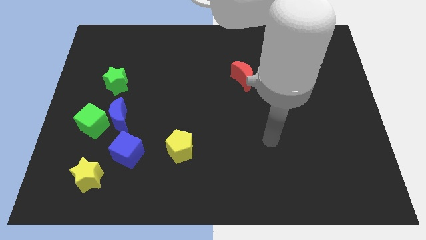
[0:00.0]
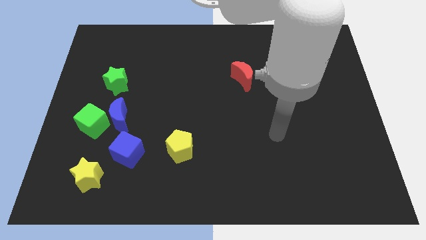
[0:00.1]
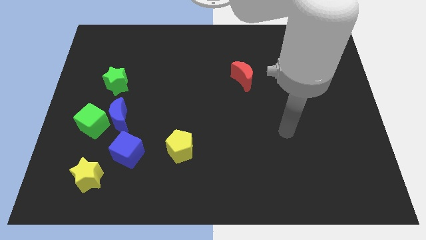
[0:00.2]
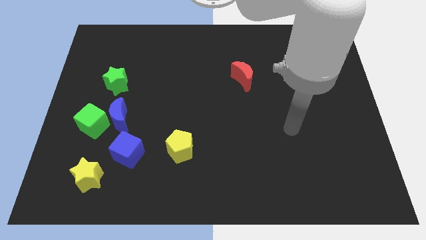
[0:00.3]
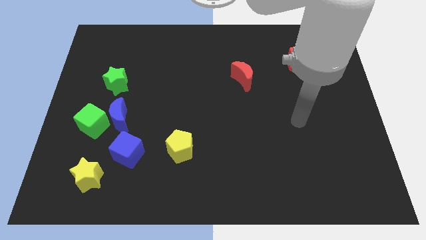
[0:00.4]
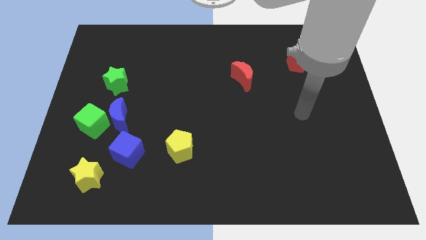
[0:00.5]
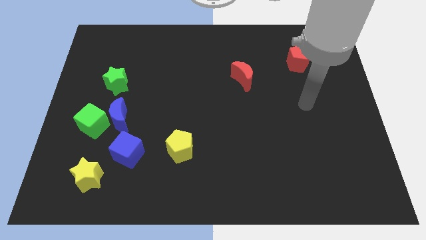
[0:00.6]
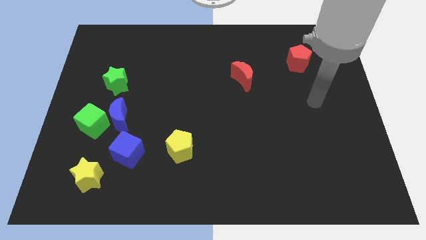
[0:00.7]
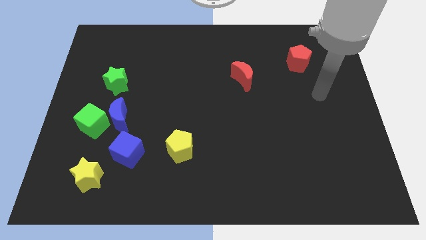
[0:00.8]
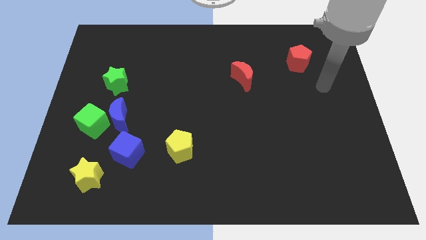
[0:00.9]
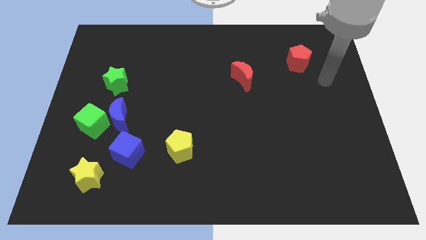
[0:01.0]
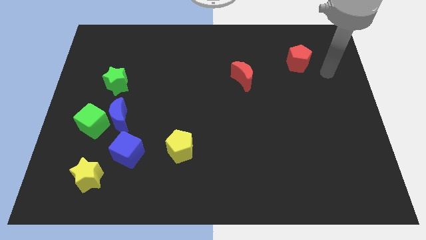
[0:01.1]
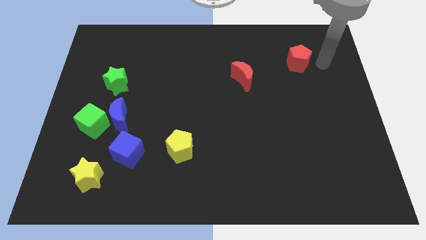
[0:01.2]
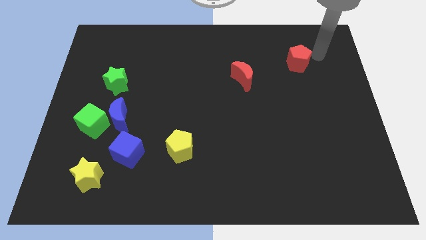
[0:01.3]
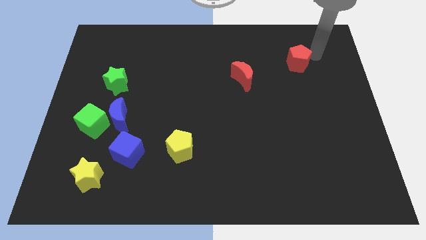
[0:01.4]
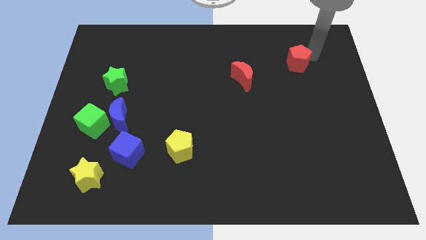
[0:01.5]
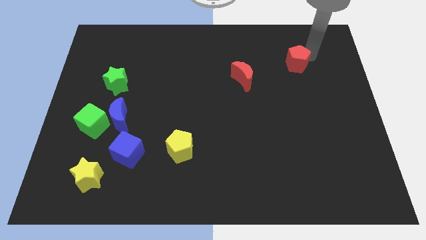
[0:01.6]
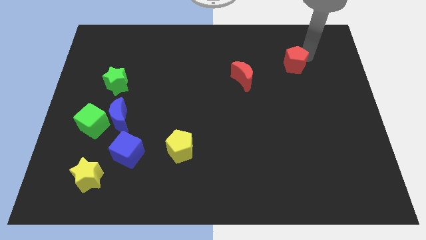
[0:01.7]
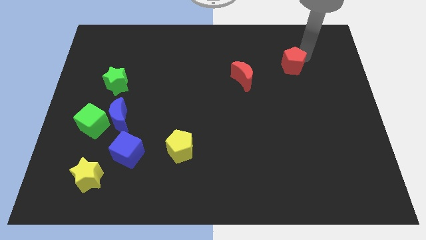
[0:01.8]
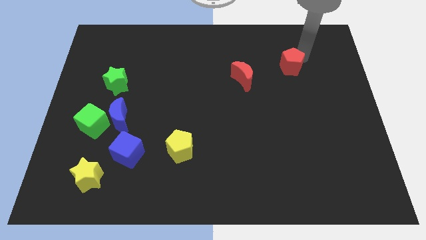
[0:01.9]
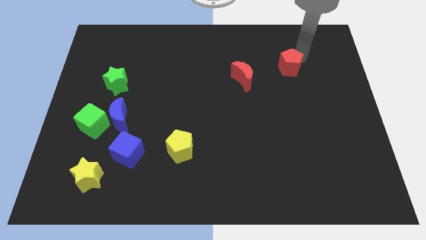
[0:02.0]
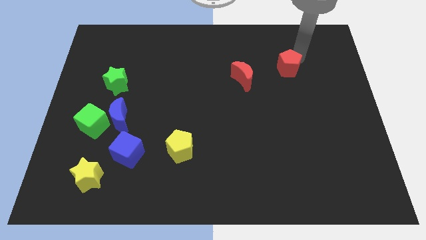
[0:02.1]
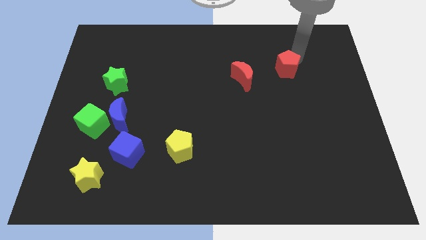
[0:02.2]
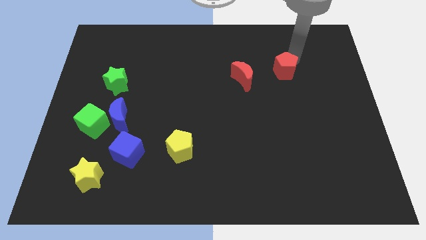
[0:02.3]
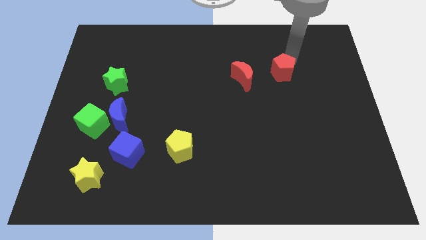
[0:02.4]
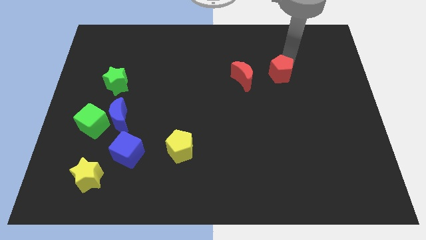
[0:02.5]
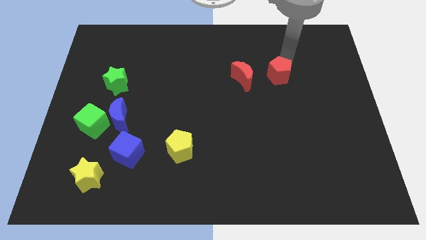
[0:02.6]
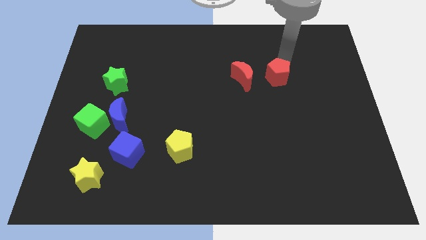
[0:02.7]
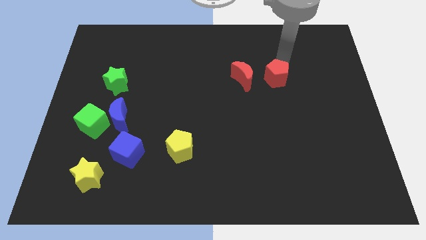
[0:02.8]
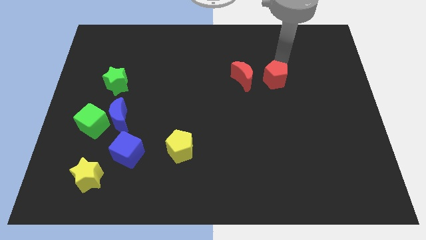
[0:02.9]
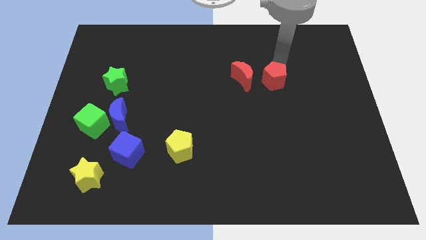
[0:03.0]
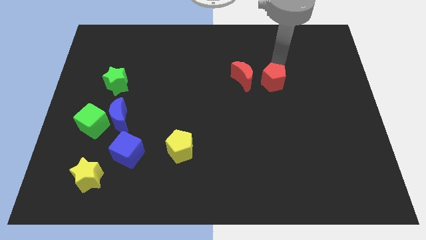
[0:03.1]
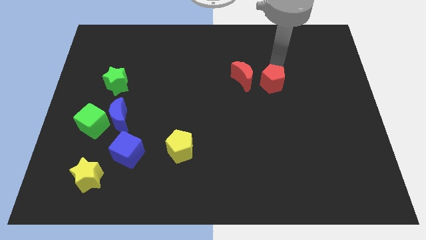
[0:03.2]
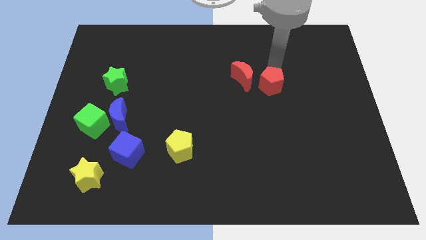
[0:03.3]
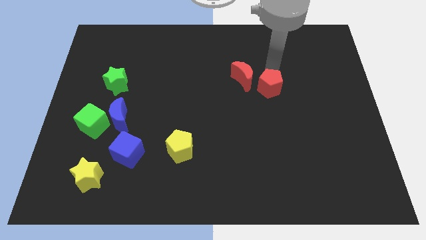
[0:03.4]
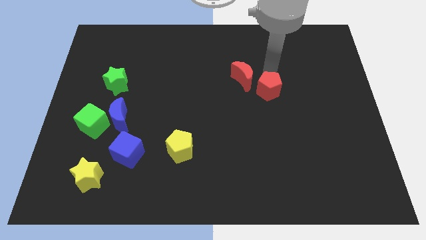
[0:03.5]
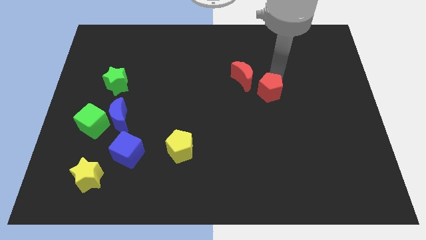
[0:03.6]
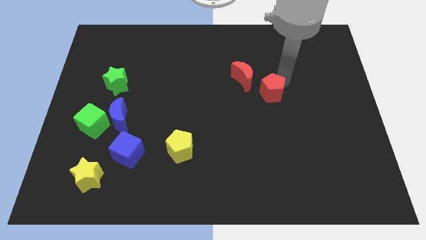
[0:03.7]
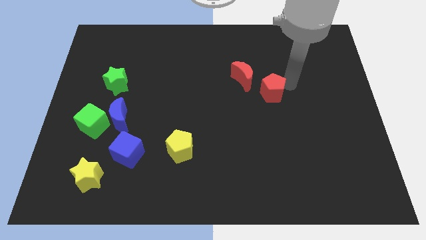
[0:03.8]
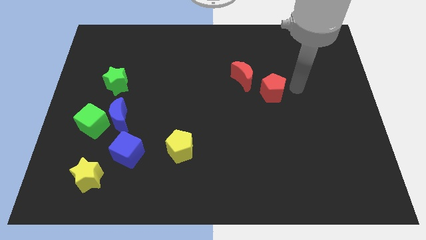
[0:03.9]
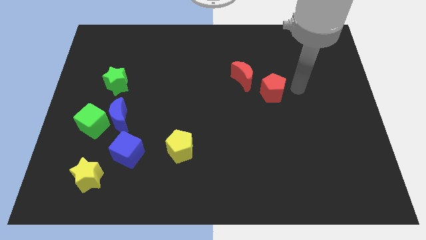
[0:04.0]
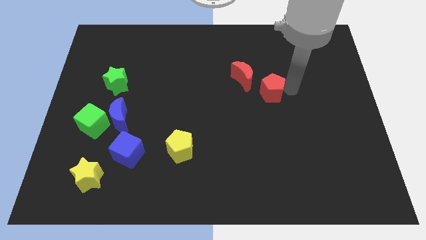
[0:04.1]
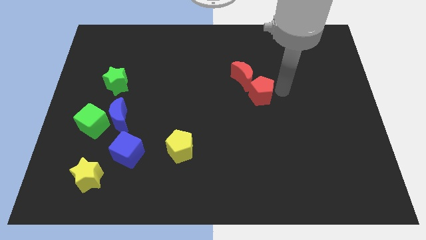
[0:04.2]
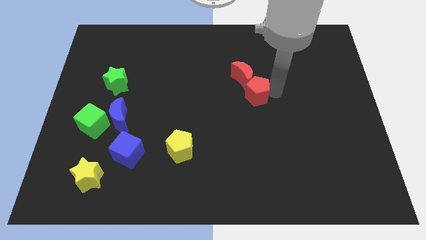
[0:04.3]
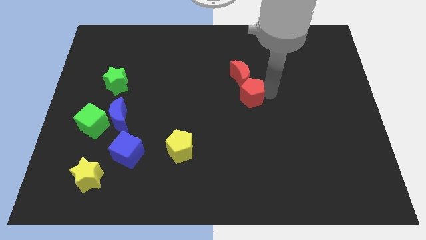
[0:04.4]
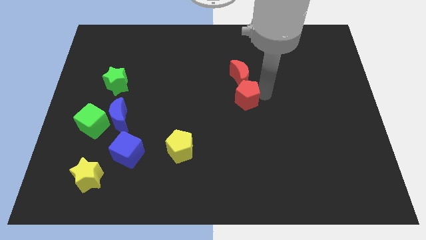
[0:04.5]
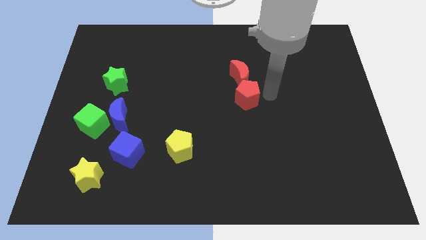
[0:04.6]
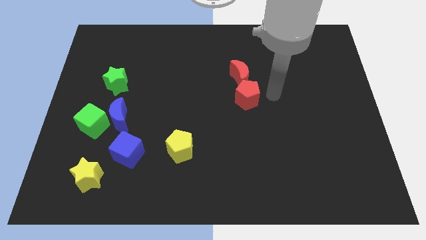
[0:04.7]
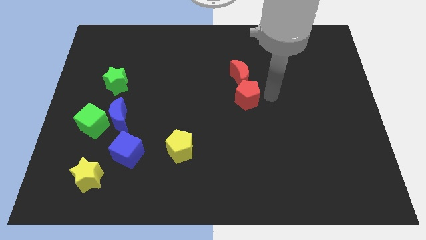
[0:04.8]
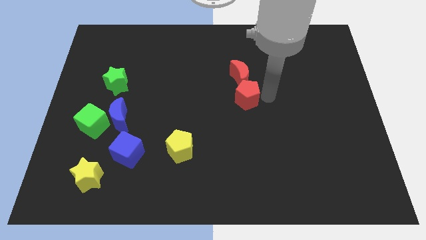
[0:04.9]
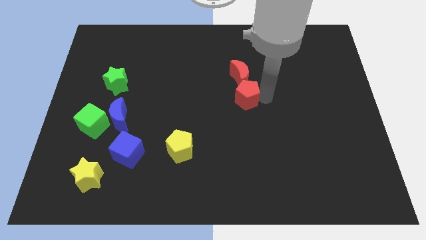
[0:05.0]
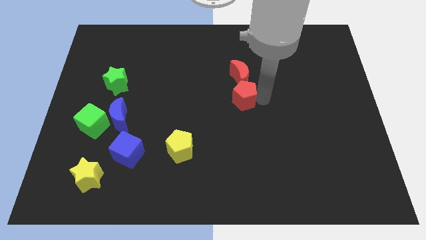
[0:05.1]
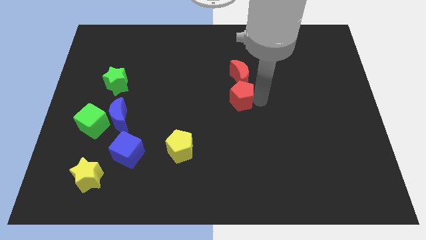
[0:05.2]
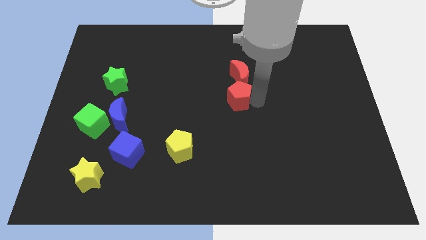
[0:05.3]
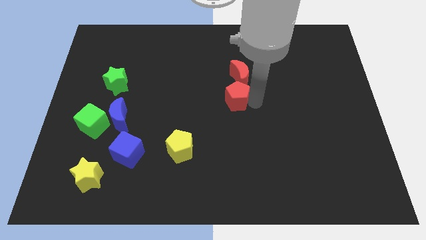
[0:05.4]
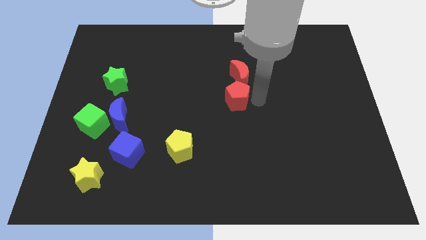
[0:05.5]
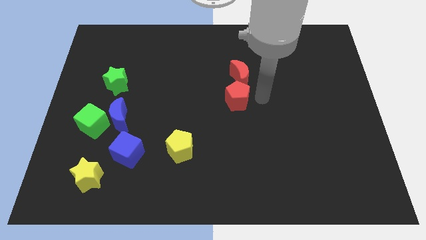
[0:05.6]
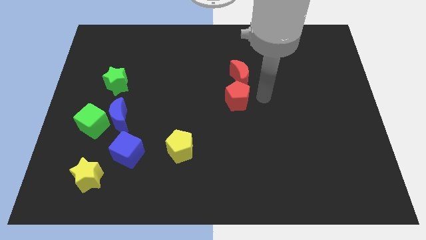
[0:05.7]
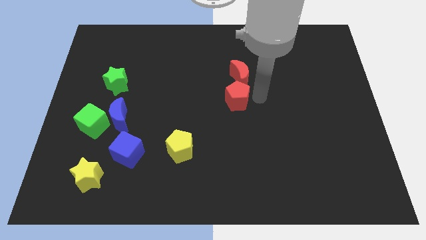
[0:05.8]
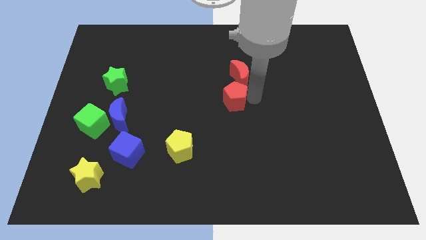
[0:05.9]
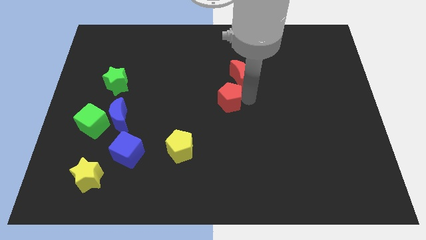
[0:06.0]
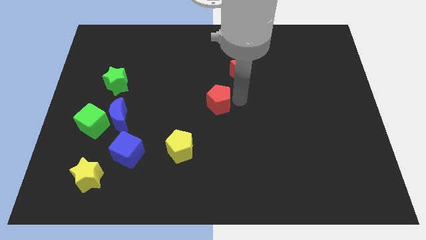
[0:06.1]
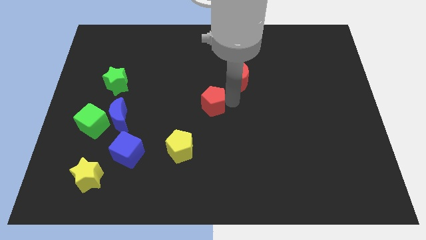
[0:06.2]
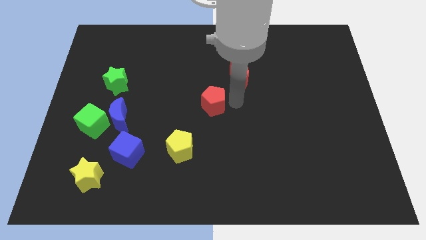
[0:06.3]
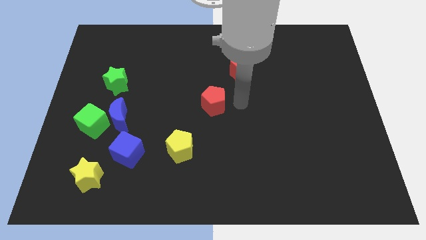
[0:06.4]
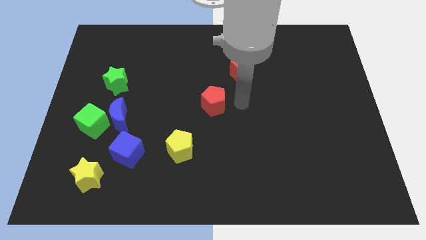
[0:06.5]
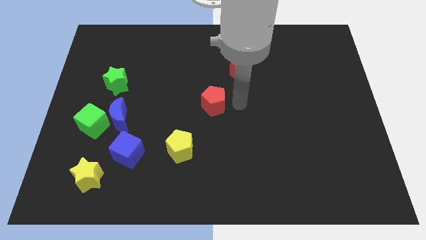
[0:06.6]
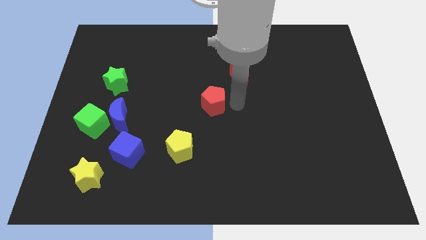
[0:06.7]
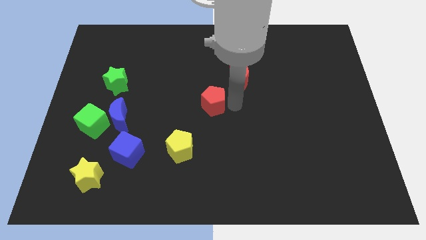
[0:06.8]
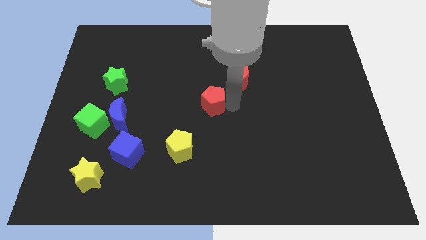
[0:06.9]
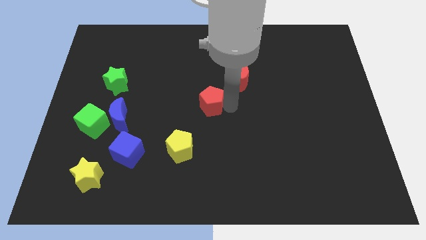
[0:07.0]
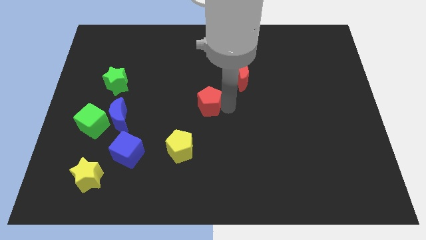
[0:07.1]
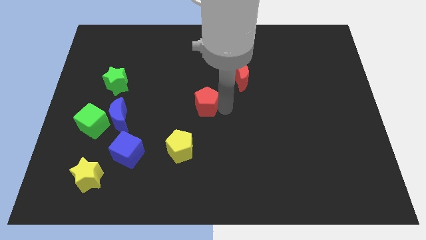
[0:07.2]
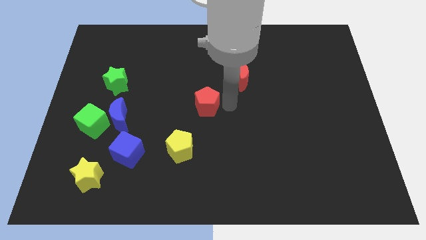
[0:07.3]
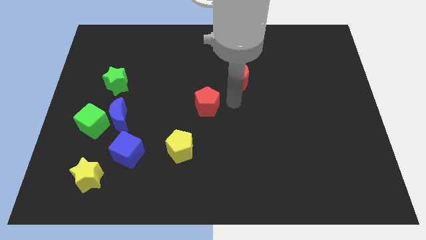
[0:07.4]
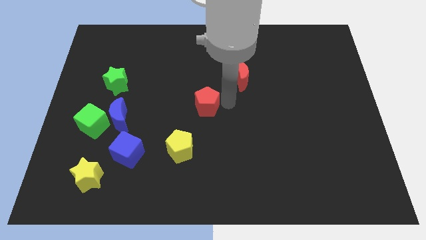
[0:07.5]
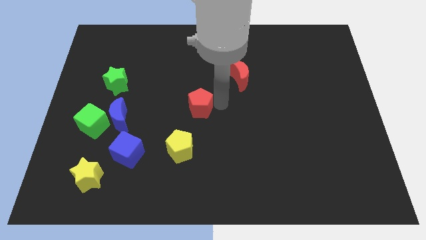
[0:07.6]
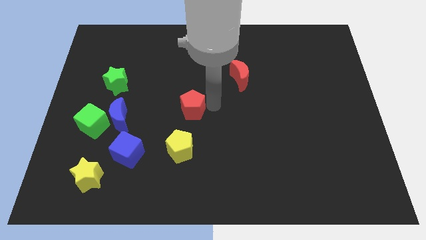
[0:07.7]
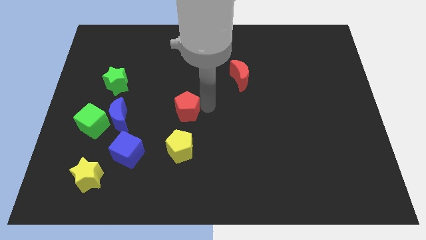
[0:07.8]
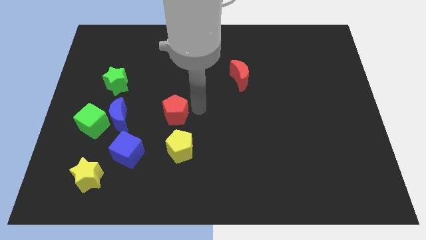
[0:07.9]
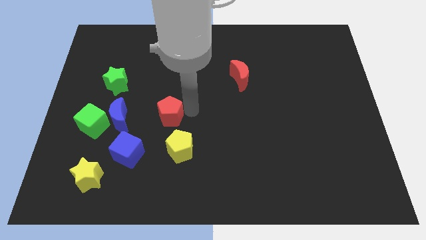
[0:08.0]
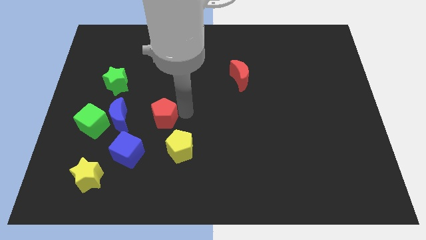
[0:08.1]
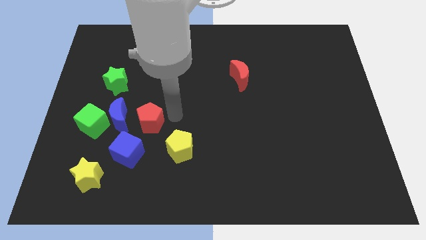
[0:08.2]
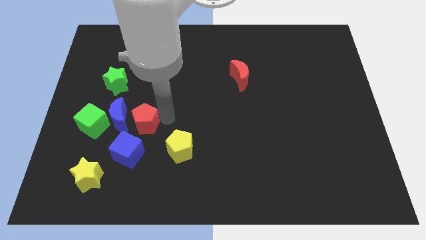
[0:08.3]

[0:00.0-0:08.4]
move the red pentagon next to the blue moon
